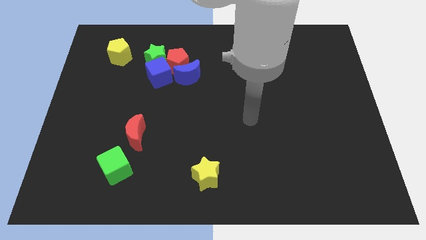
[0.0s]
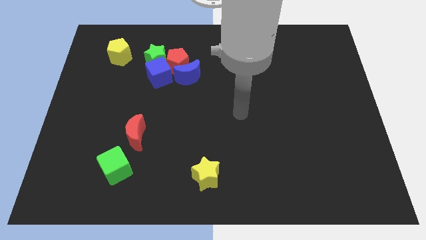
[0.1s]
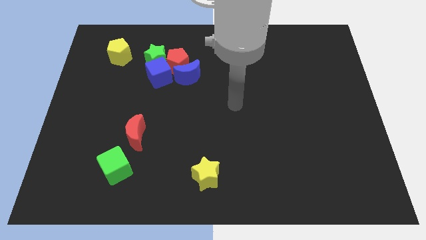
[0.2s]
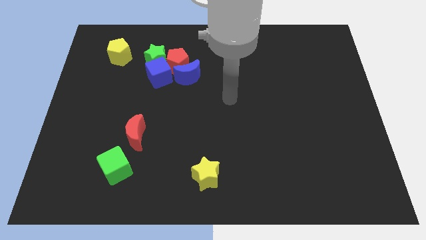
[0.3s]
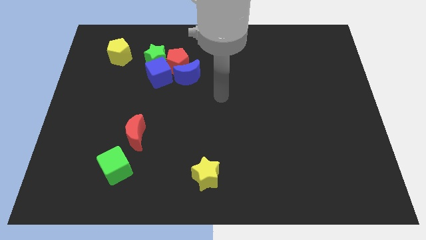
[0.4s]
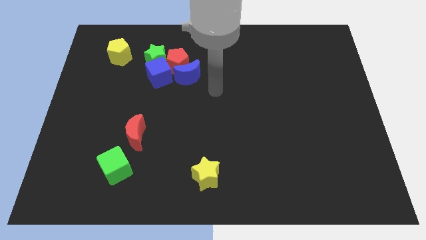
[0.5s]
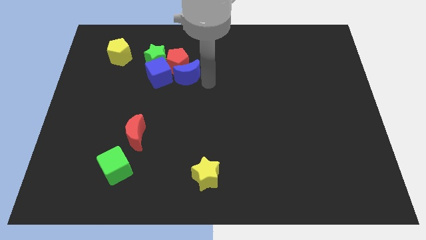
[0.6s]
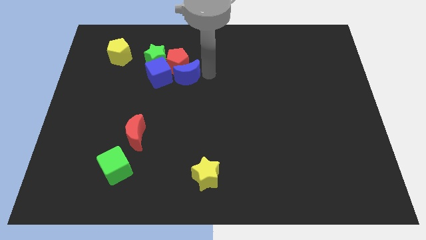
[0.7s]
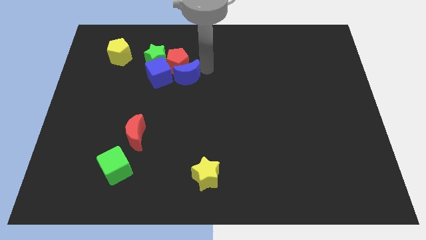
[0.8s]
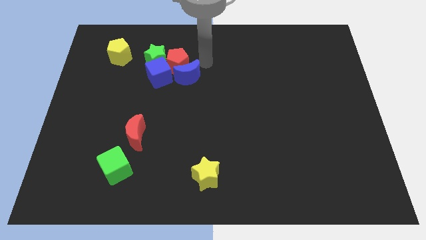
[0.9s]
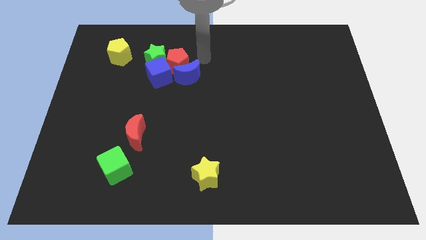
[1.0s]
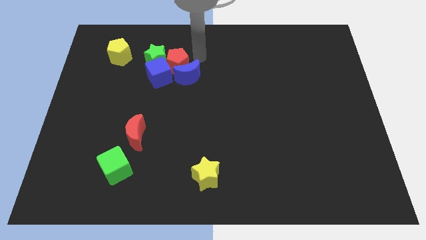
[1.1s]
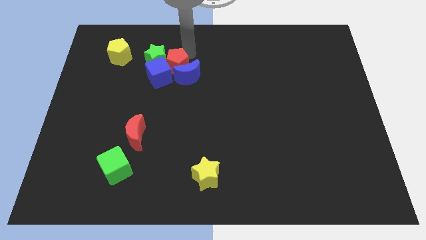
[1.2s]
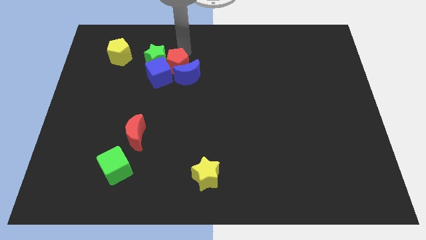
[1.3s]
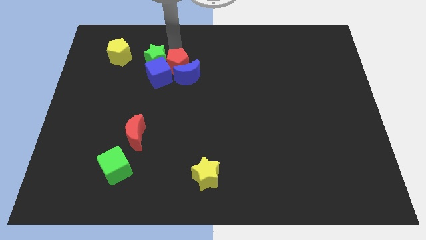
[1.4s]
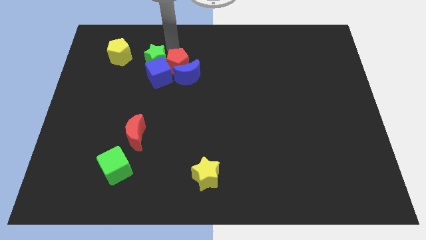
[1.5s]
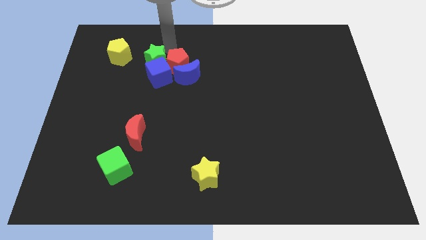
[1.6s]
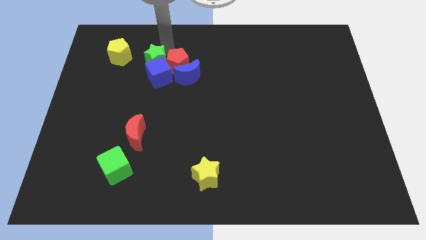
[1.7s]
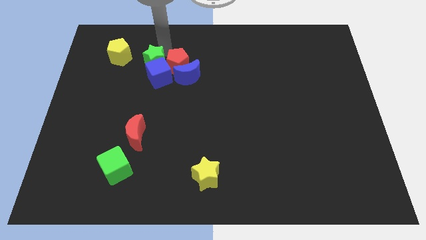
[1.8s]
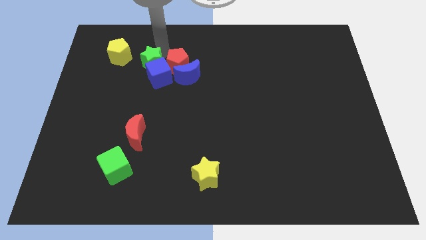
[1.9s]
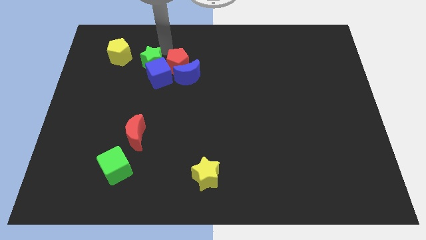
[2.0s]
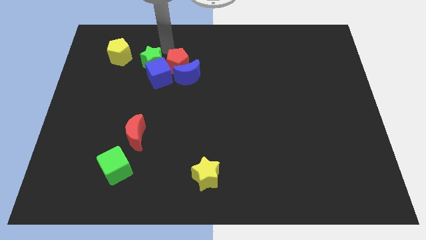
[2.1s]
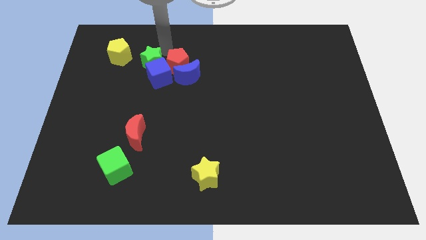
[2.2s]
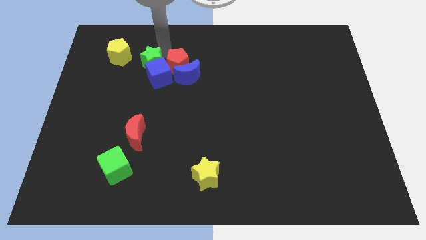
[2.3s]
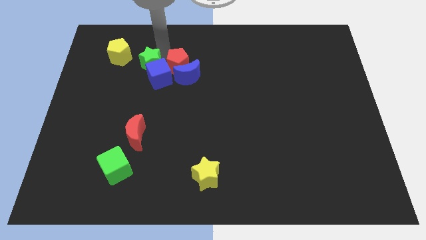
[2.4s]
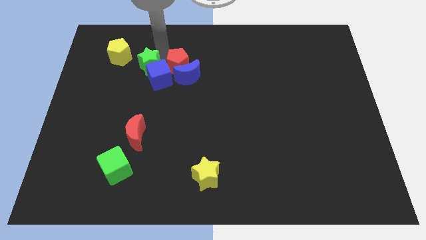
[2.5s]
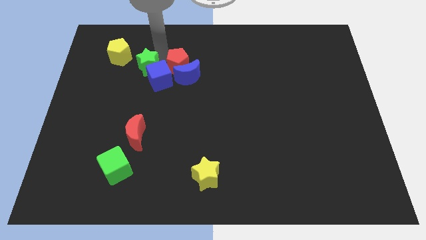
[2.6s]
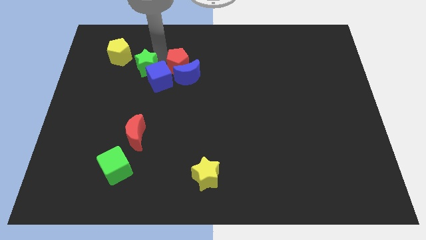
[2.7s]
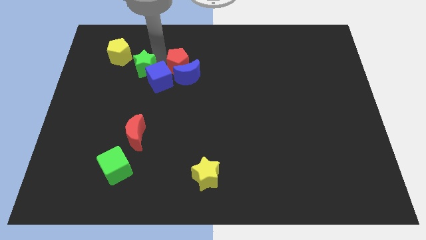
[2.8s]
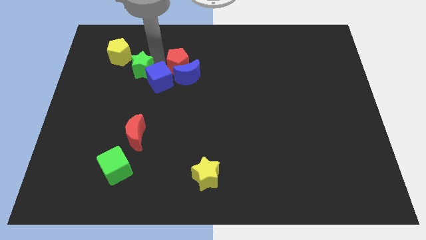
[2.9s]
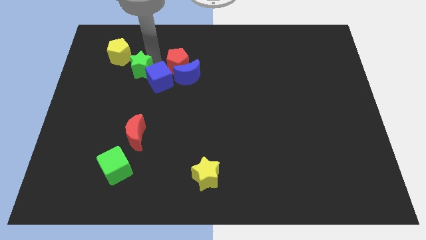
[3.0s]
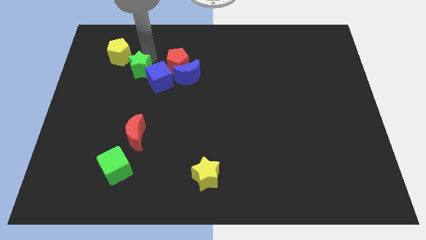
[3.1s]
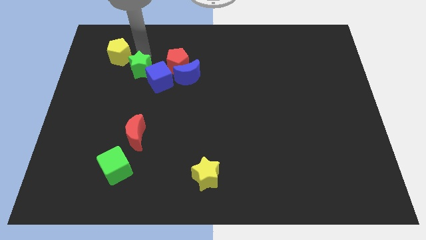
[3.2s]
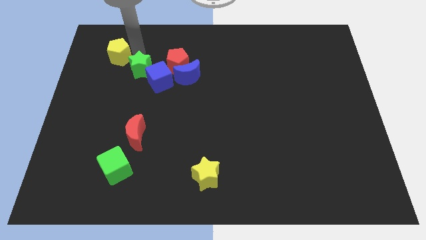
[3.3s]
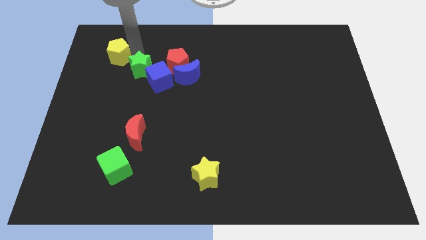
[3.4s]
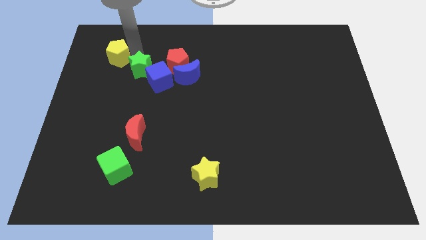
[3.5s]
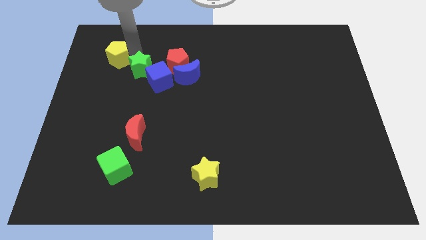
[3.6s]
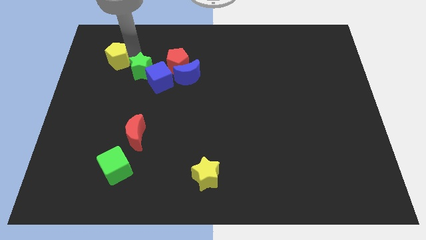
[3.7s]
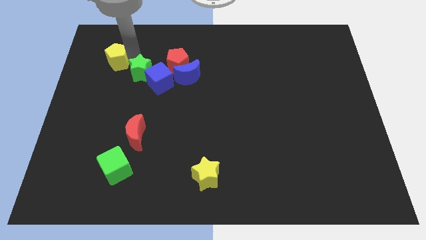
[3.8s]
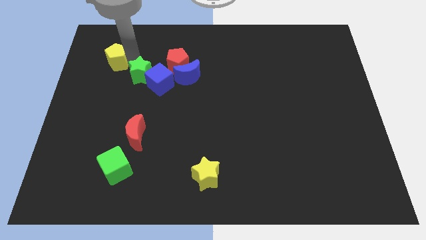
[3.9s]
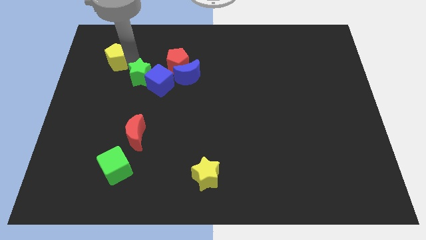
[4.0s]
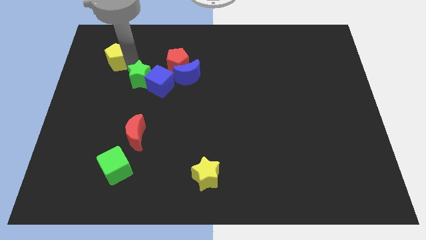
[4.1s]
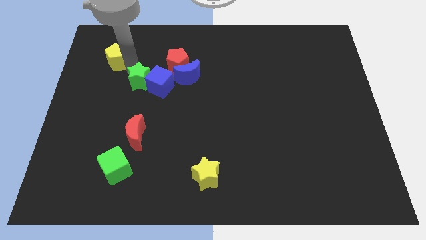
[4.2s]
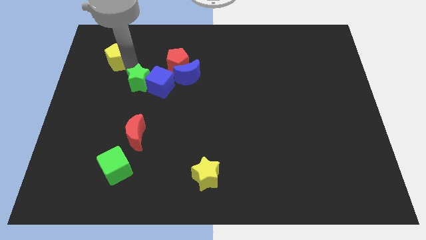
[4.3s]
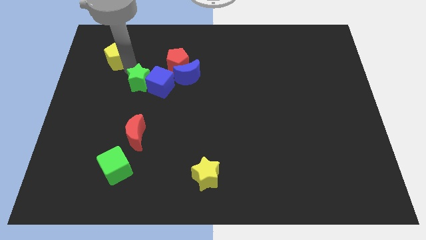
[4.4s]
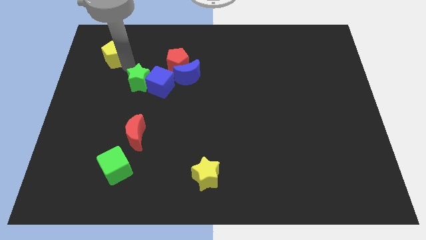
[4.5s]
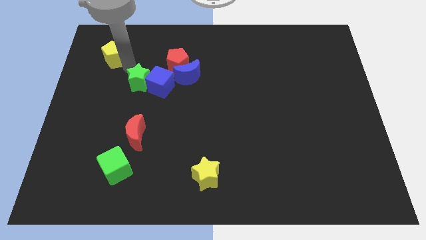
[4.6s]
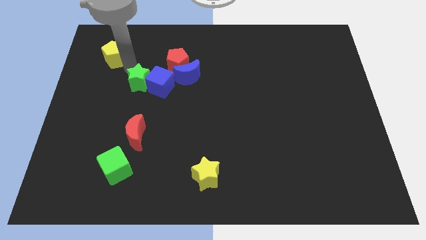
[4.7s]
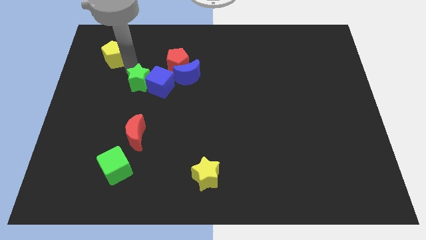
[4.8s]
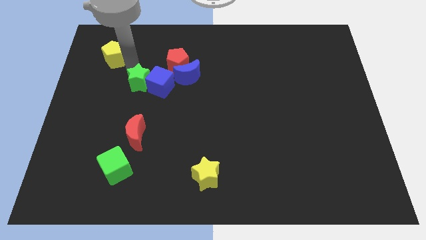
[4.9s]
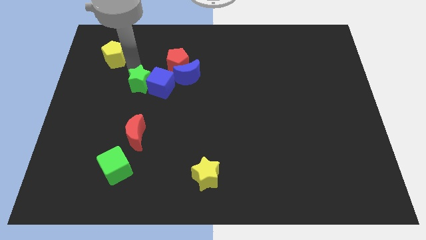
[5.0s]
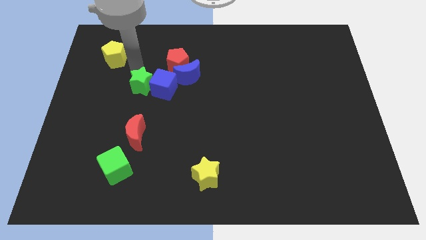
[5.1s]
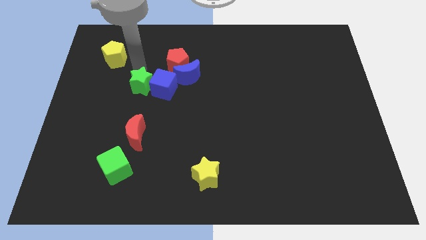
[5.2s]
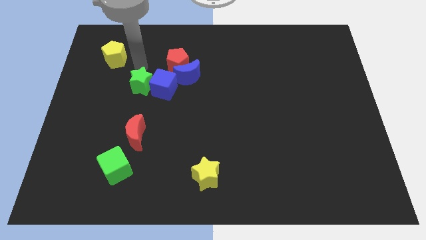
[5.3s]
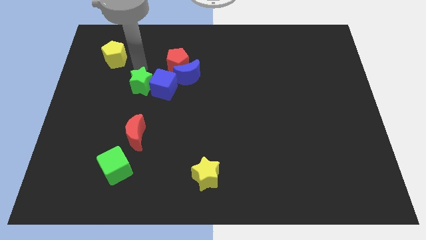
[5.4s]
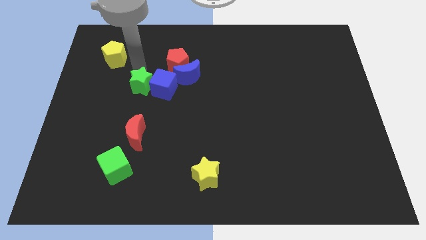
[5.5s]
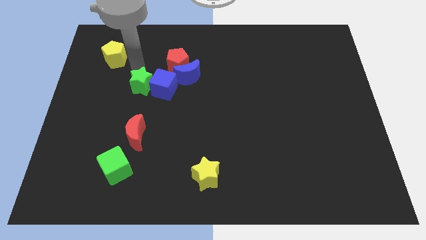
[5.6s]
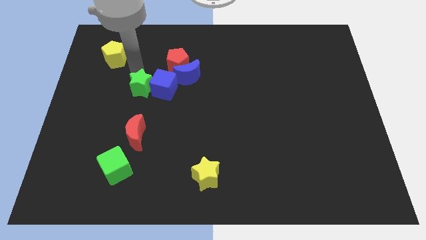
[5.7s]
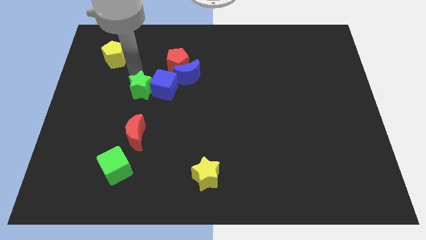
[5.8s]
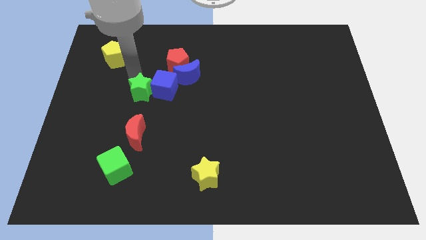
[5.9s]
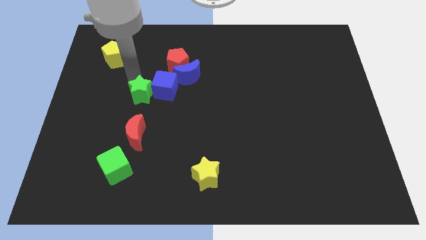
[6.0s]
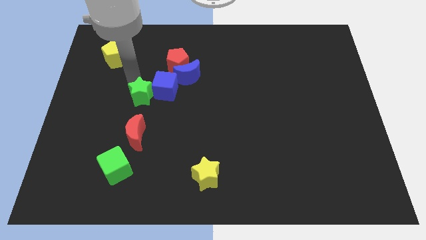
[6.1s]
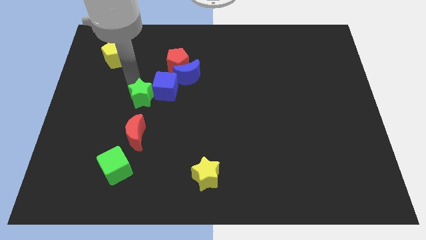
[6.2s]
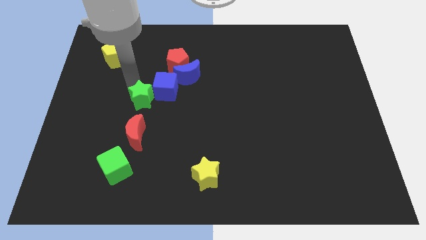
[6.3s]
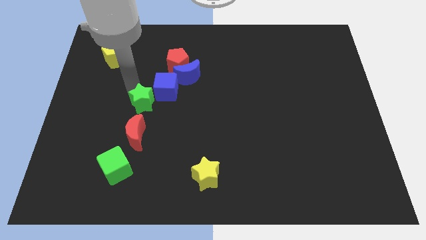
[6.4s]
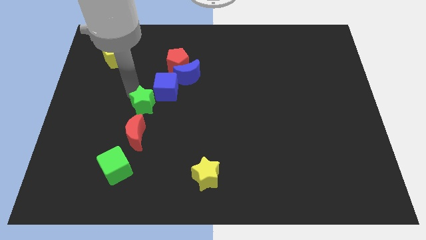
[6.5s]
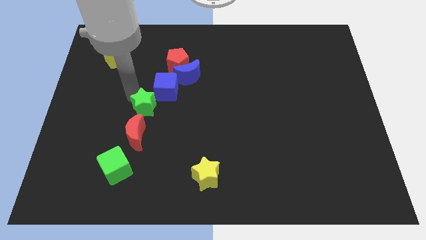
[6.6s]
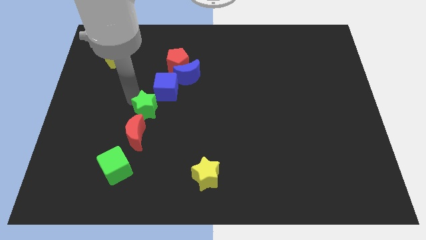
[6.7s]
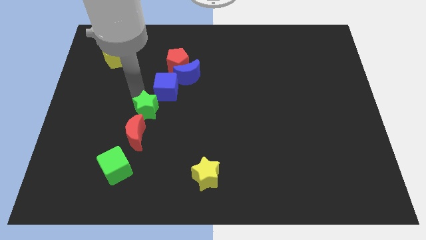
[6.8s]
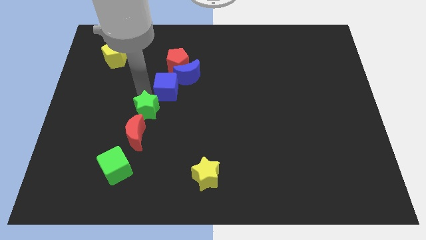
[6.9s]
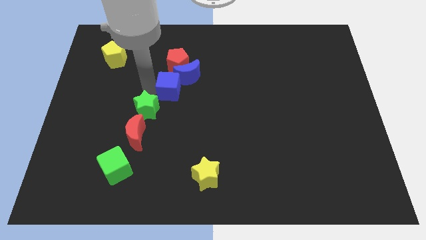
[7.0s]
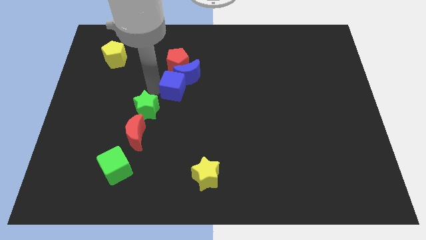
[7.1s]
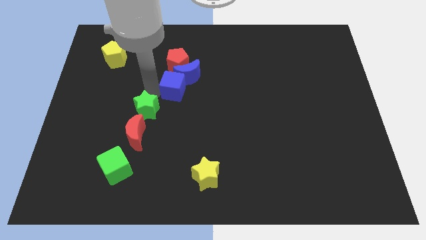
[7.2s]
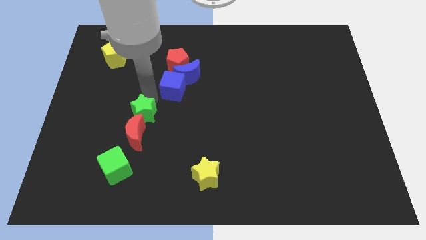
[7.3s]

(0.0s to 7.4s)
push the green star to the red moon
